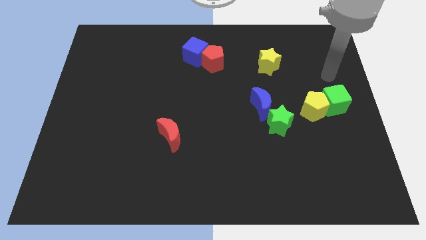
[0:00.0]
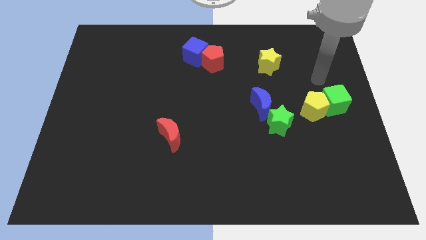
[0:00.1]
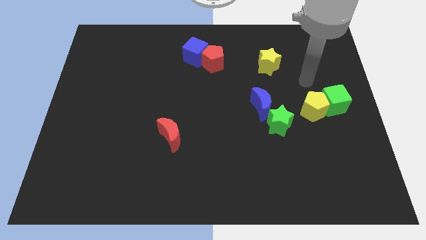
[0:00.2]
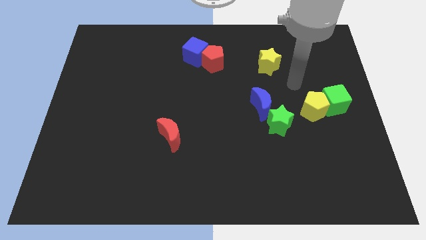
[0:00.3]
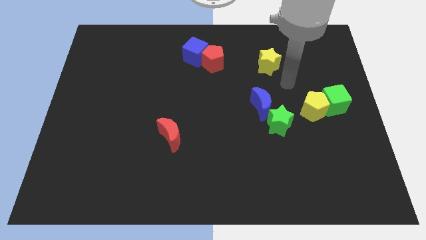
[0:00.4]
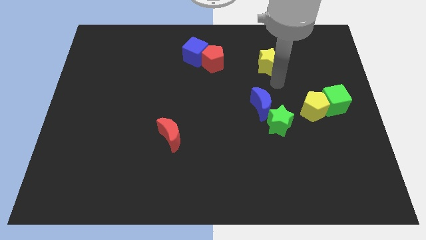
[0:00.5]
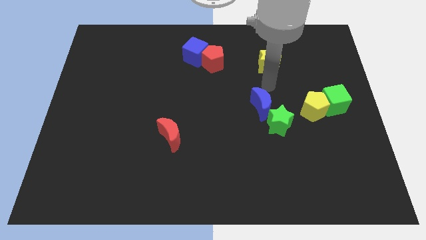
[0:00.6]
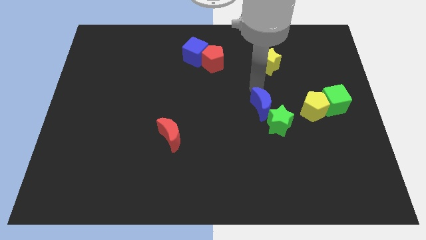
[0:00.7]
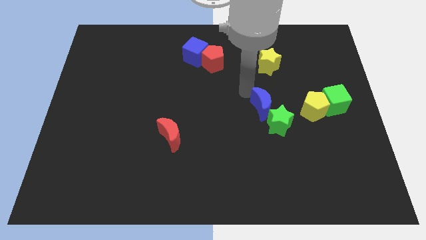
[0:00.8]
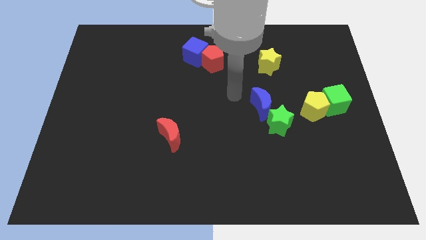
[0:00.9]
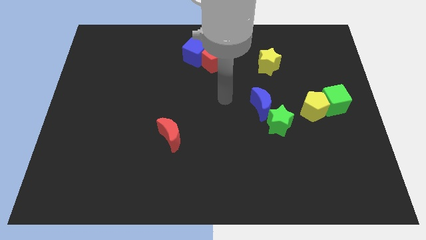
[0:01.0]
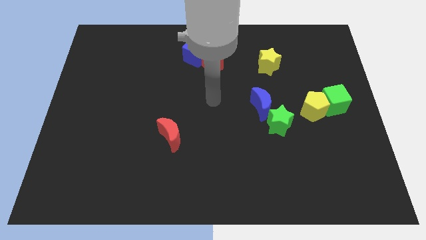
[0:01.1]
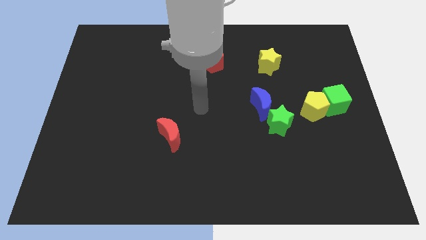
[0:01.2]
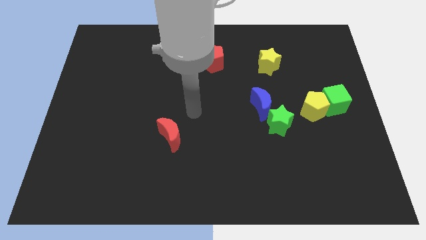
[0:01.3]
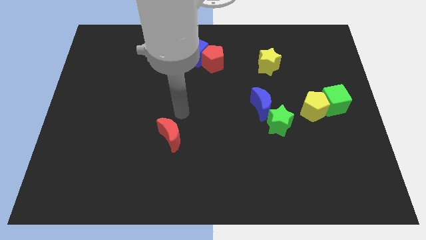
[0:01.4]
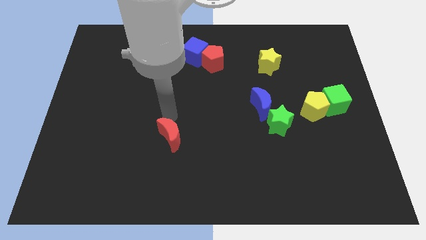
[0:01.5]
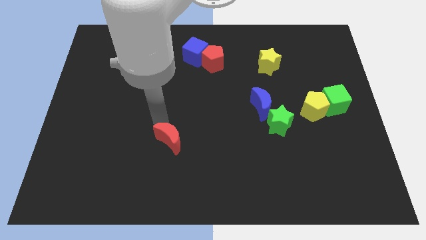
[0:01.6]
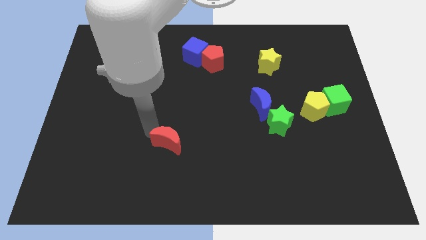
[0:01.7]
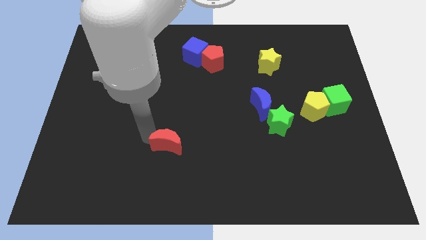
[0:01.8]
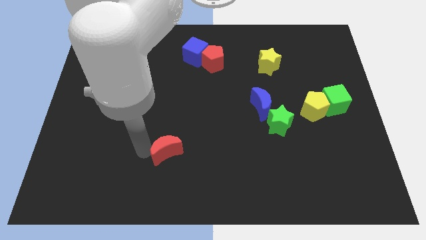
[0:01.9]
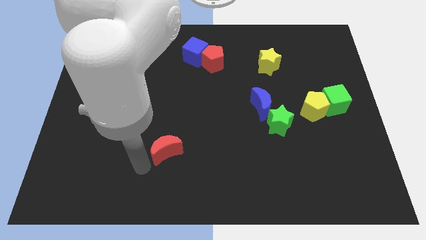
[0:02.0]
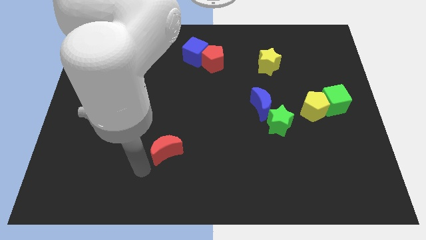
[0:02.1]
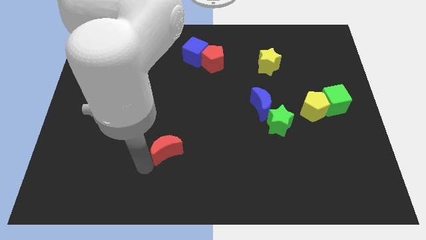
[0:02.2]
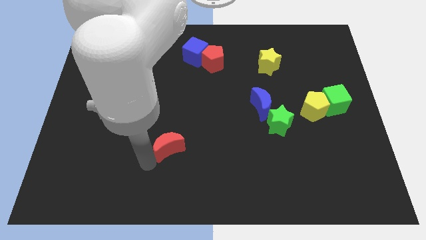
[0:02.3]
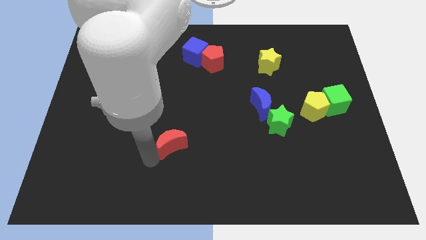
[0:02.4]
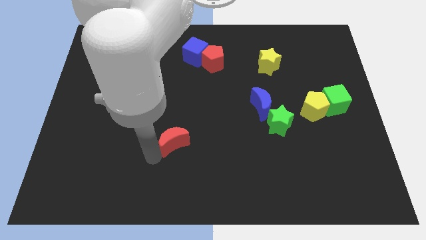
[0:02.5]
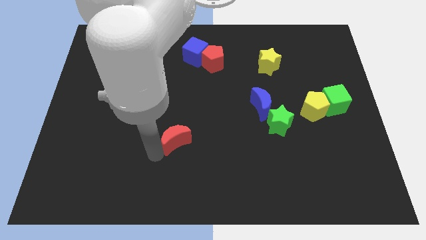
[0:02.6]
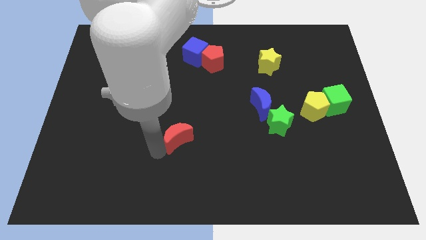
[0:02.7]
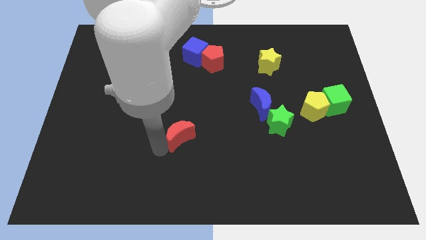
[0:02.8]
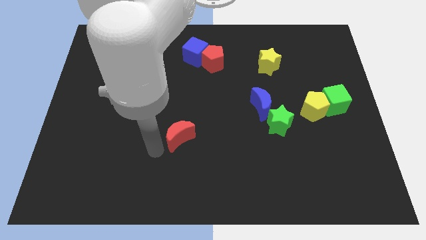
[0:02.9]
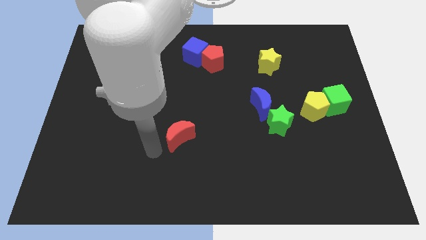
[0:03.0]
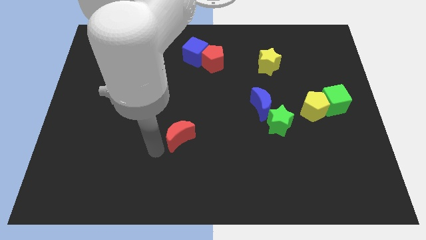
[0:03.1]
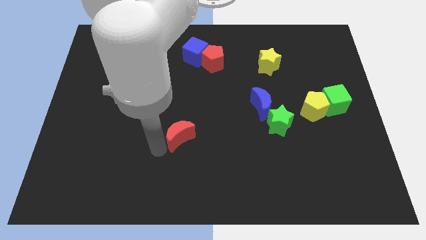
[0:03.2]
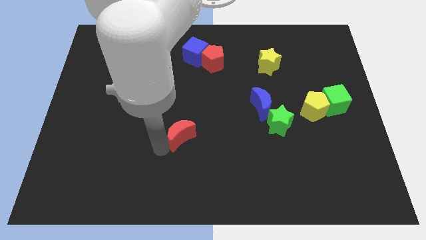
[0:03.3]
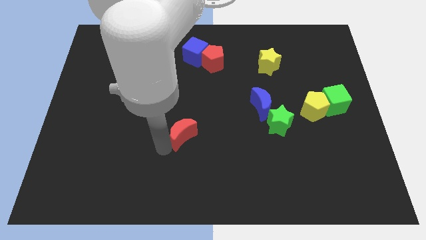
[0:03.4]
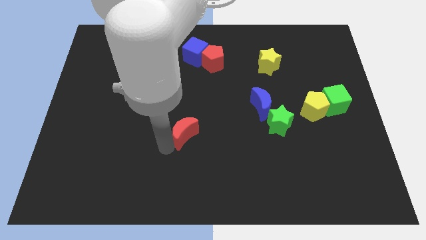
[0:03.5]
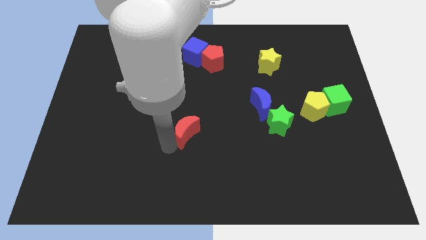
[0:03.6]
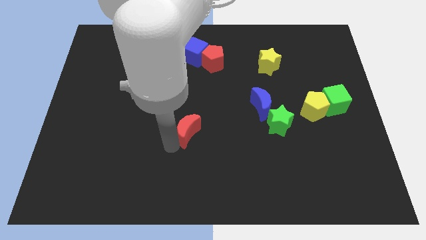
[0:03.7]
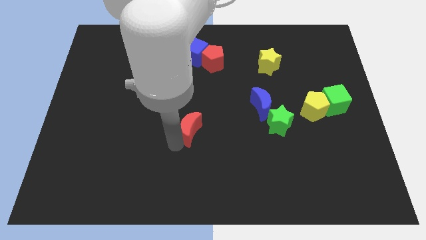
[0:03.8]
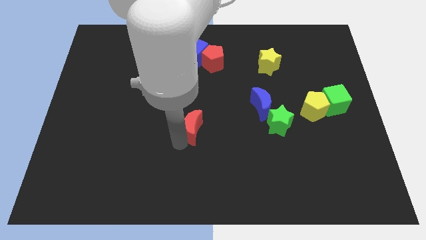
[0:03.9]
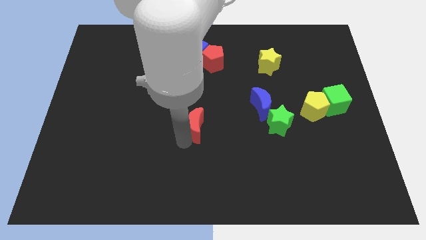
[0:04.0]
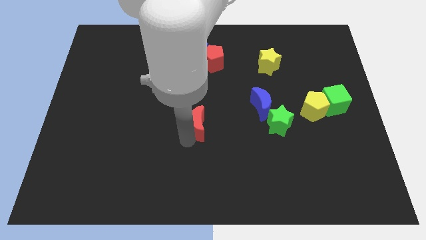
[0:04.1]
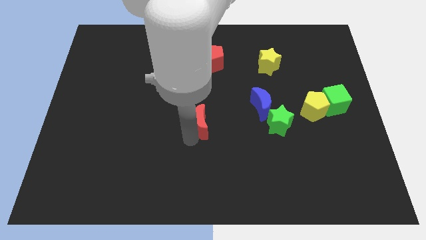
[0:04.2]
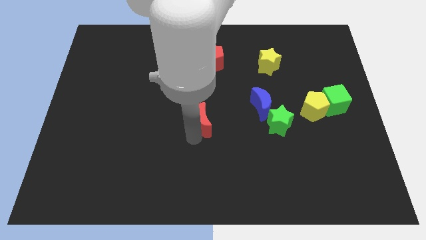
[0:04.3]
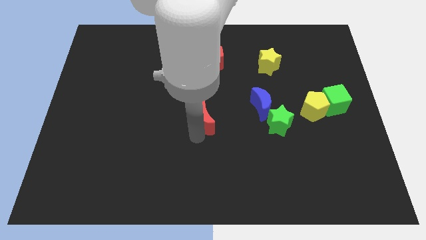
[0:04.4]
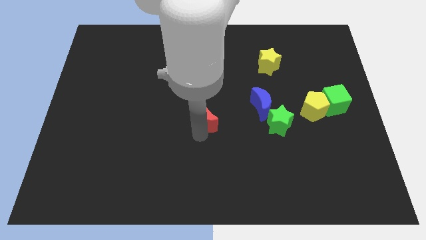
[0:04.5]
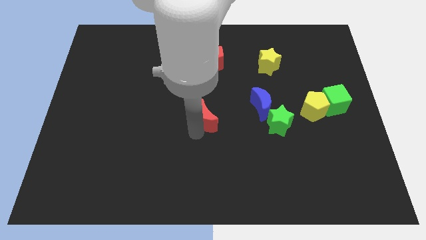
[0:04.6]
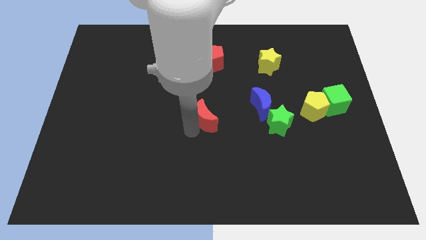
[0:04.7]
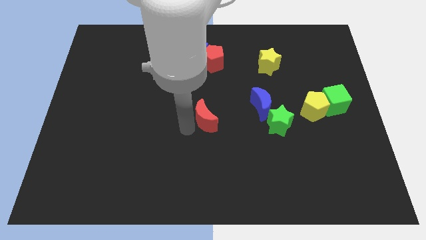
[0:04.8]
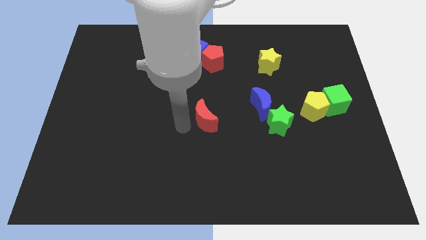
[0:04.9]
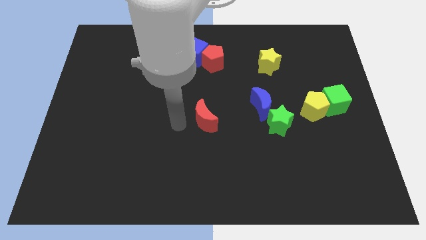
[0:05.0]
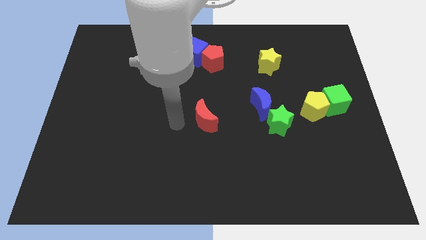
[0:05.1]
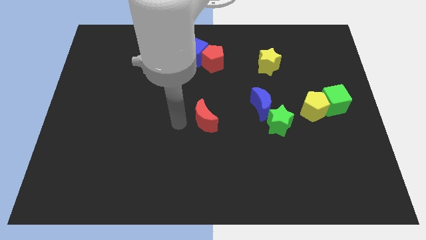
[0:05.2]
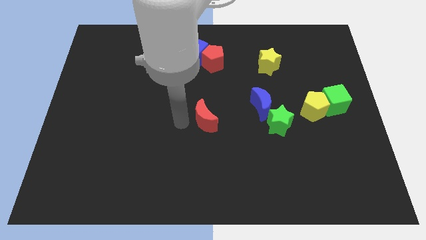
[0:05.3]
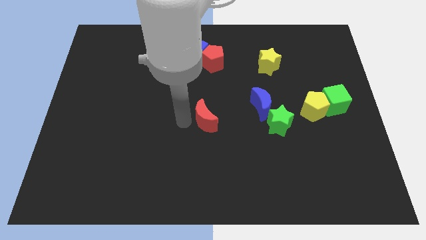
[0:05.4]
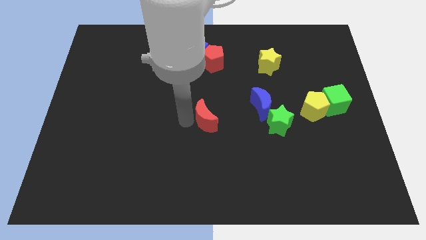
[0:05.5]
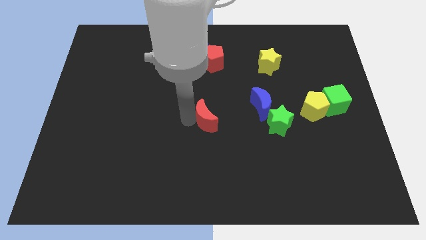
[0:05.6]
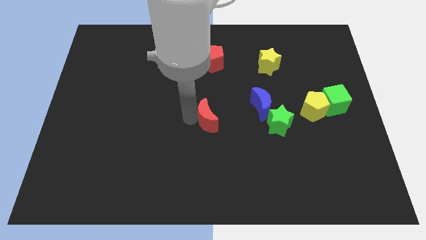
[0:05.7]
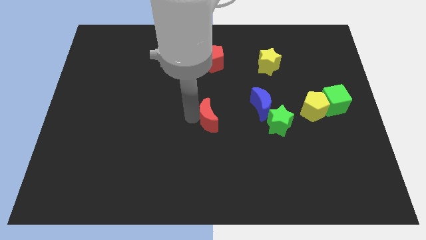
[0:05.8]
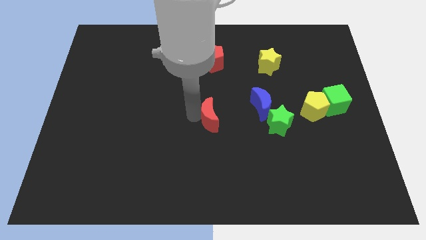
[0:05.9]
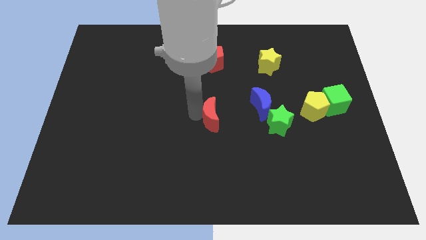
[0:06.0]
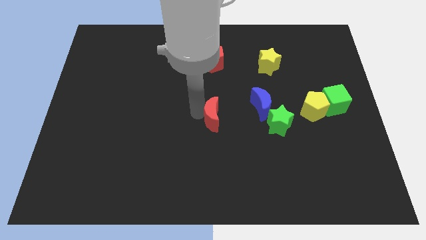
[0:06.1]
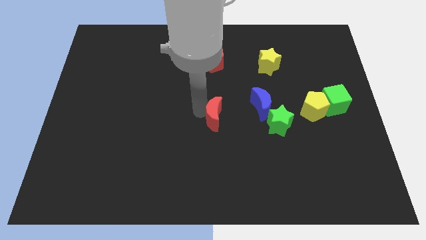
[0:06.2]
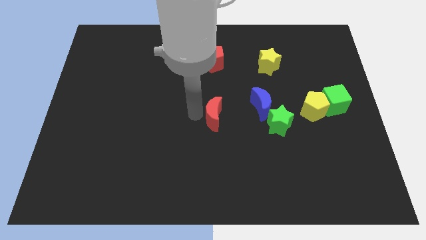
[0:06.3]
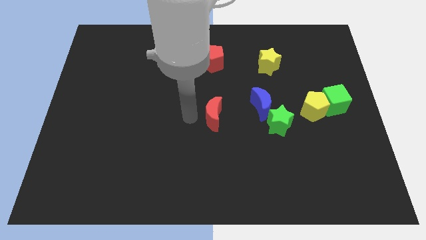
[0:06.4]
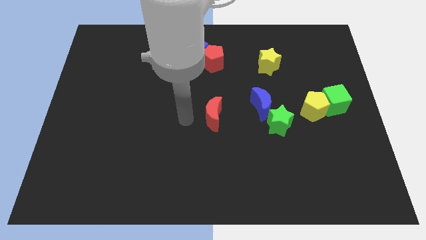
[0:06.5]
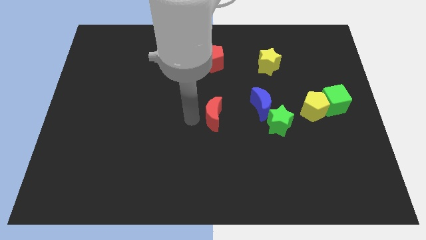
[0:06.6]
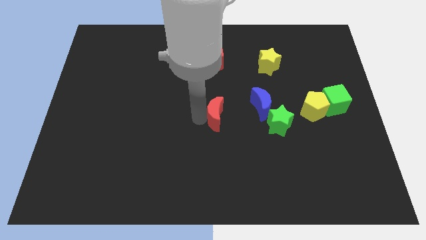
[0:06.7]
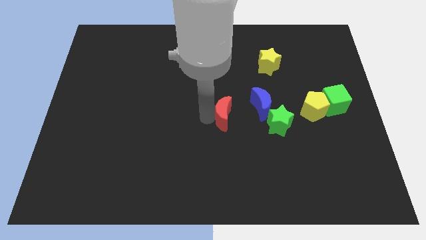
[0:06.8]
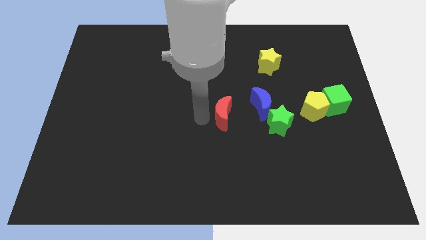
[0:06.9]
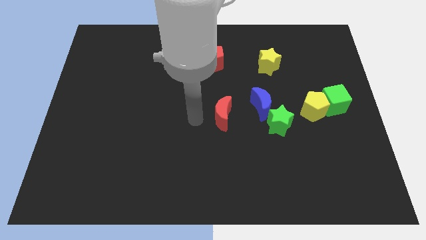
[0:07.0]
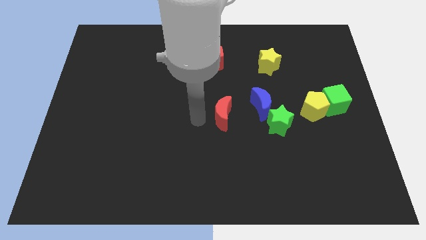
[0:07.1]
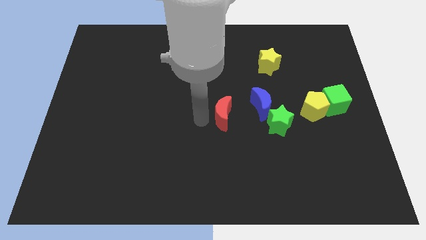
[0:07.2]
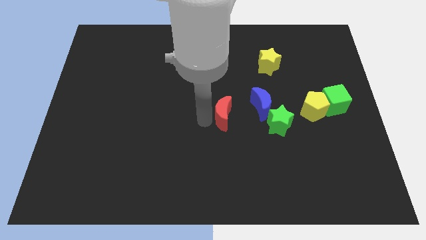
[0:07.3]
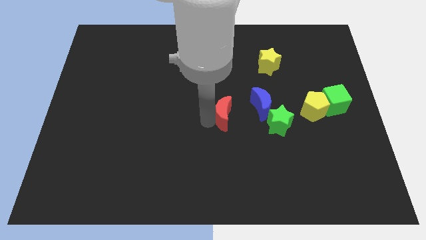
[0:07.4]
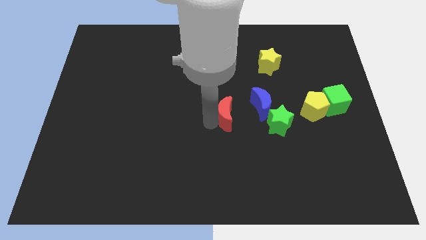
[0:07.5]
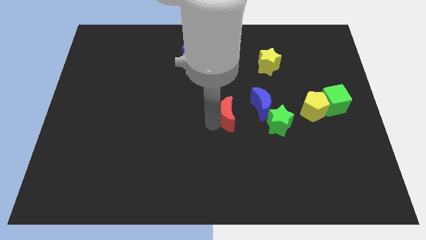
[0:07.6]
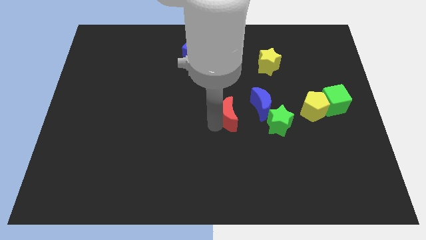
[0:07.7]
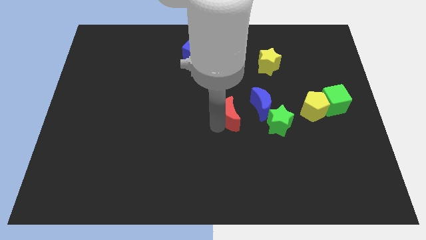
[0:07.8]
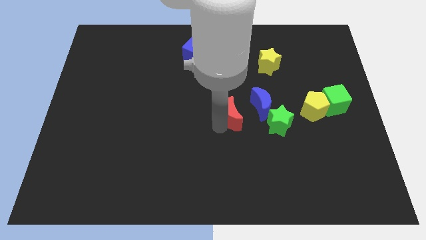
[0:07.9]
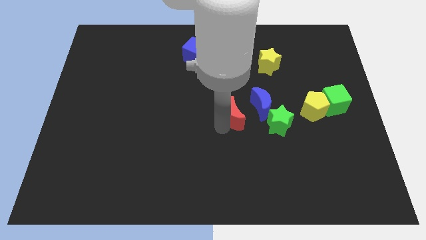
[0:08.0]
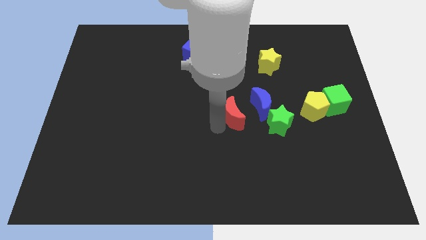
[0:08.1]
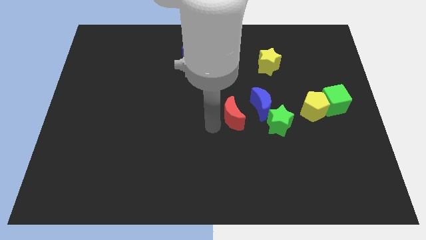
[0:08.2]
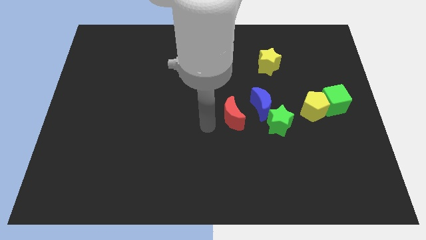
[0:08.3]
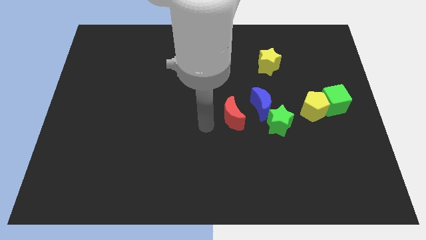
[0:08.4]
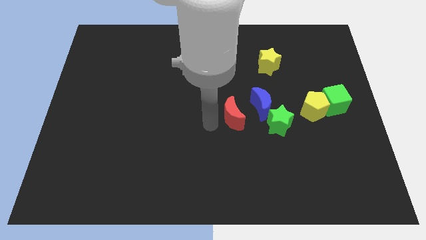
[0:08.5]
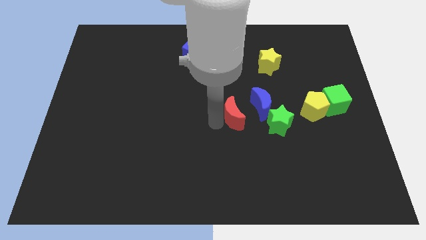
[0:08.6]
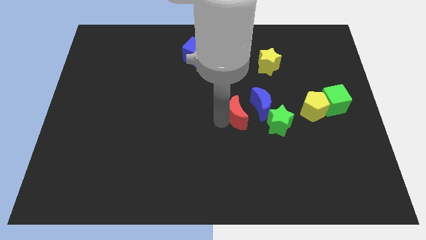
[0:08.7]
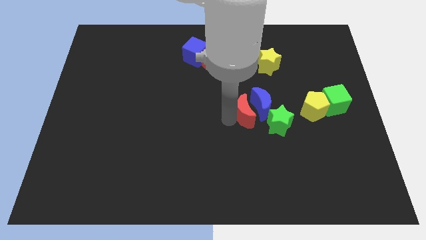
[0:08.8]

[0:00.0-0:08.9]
slide the red moon to the blue moon
